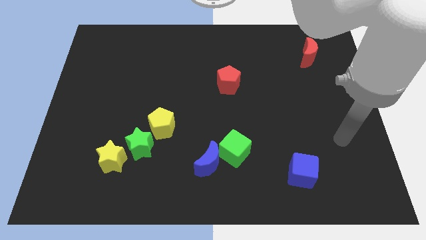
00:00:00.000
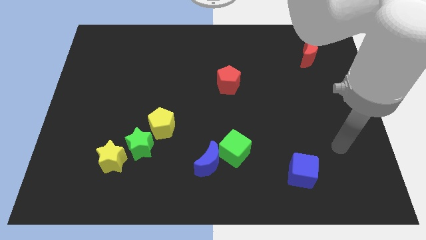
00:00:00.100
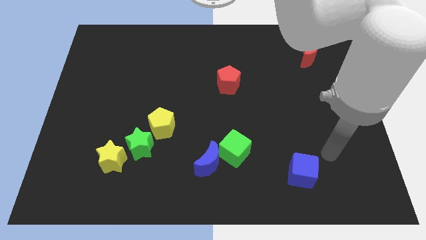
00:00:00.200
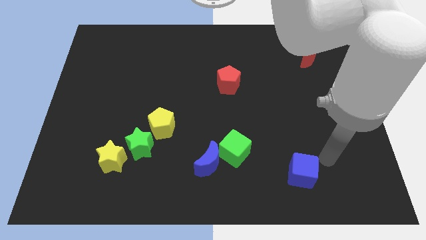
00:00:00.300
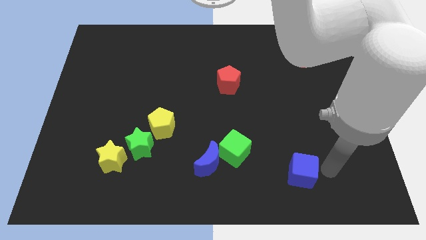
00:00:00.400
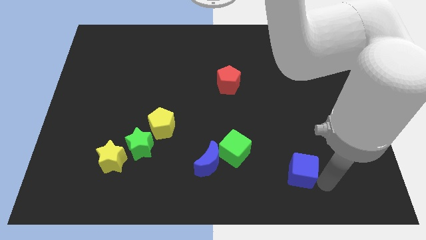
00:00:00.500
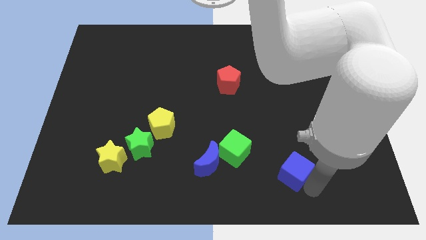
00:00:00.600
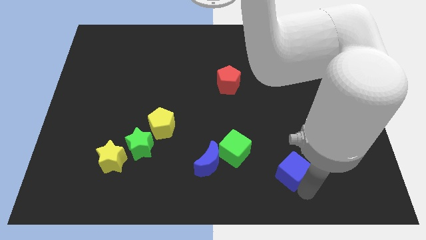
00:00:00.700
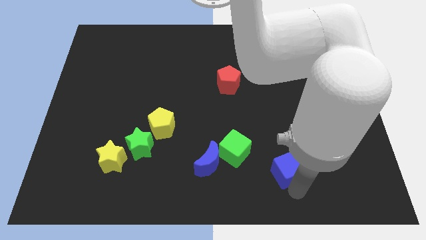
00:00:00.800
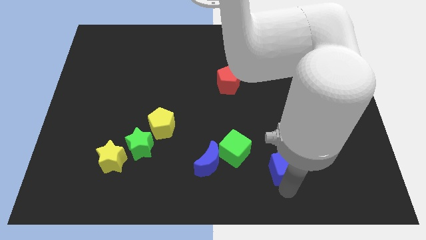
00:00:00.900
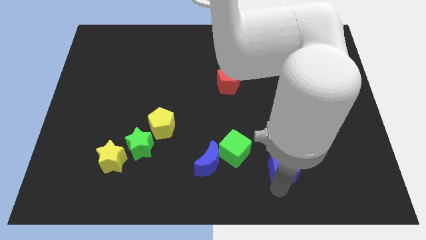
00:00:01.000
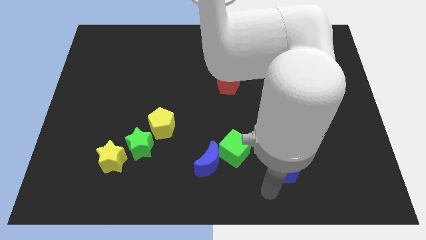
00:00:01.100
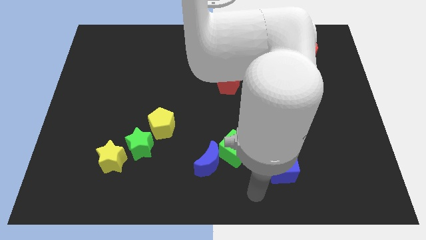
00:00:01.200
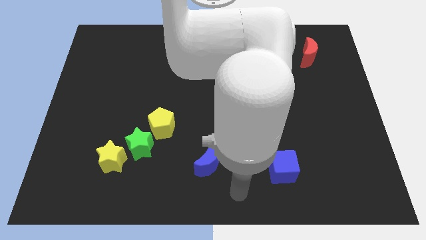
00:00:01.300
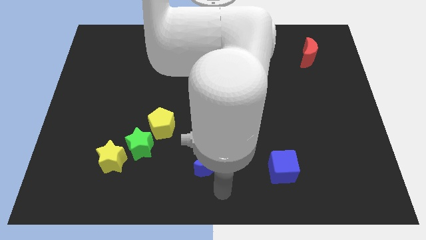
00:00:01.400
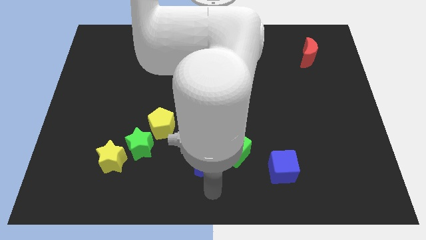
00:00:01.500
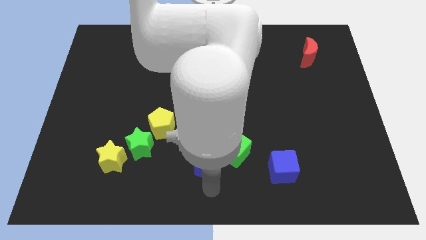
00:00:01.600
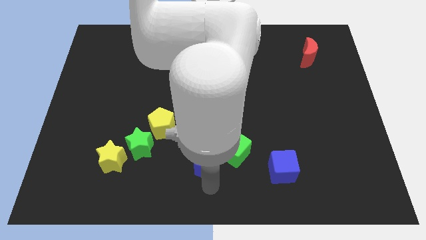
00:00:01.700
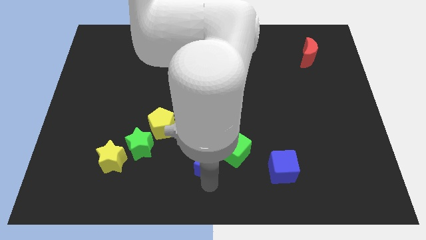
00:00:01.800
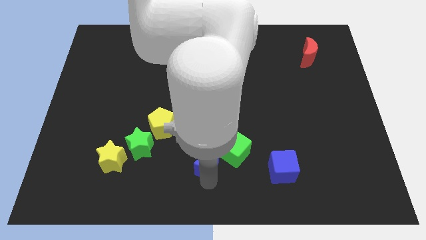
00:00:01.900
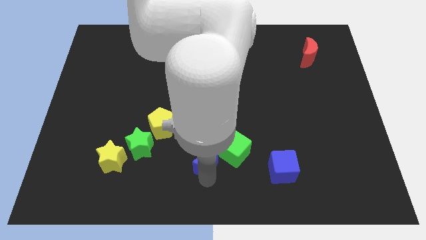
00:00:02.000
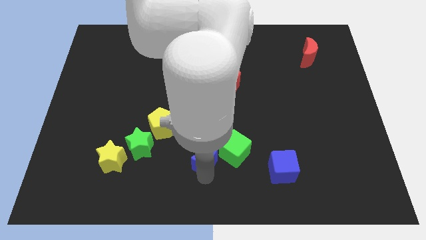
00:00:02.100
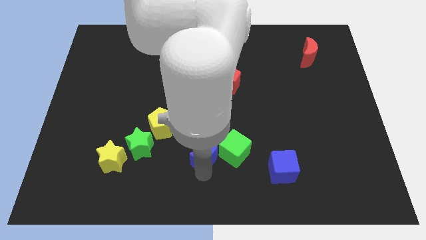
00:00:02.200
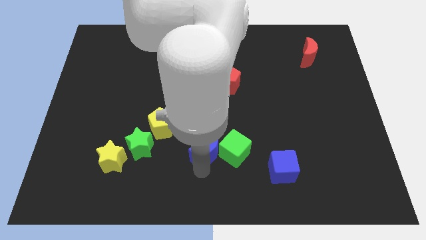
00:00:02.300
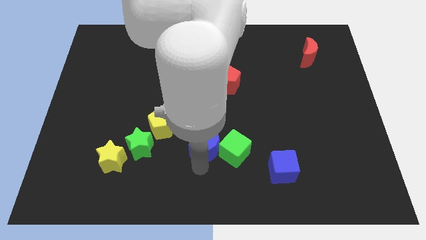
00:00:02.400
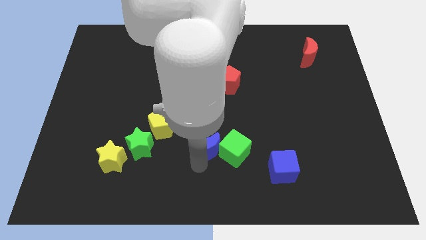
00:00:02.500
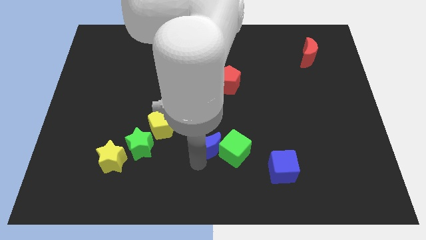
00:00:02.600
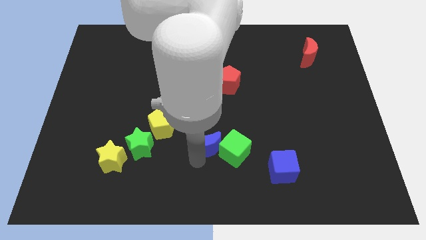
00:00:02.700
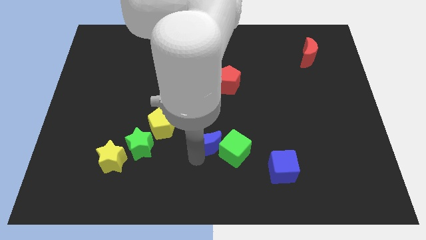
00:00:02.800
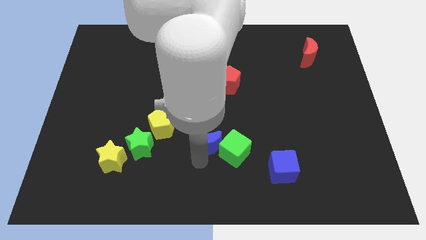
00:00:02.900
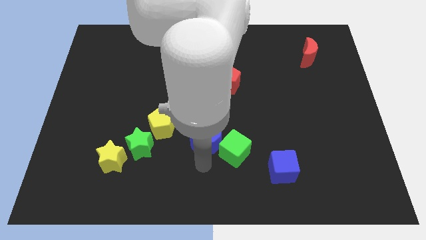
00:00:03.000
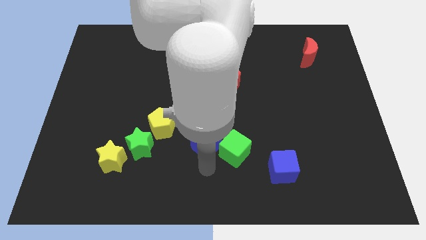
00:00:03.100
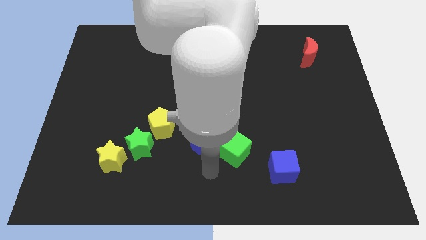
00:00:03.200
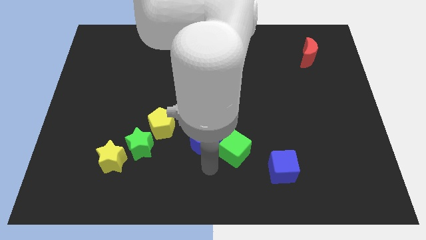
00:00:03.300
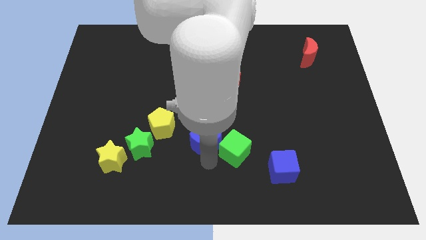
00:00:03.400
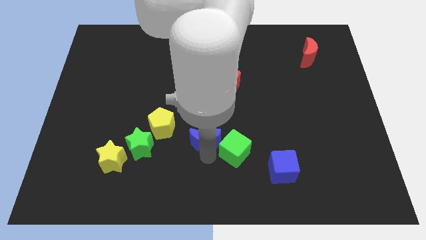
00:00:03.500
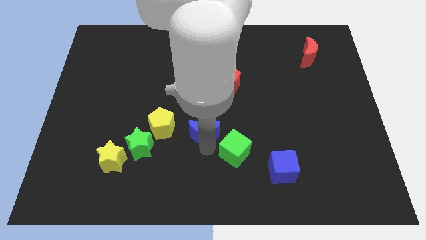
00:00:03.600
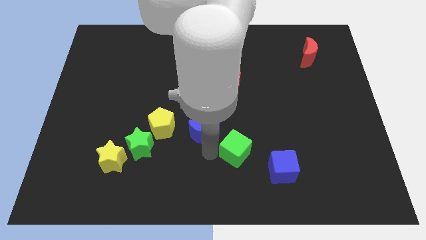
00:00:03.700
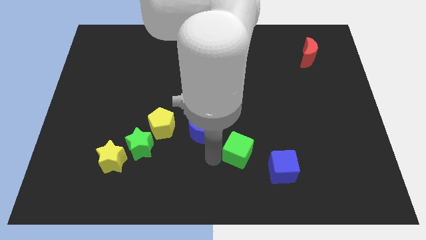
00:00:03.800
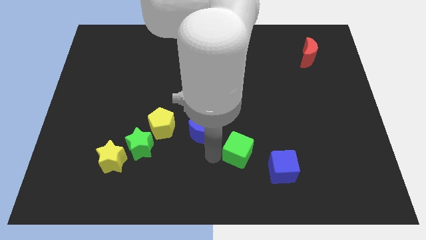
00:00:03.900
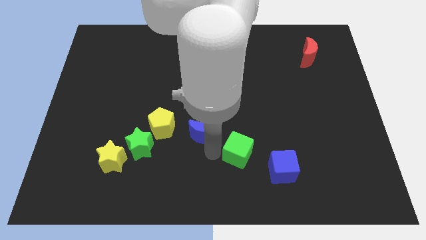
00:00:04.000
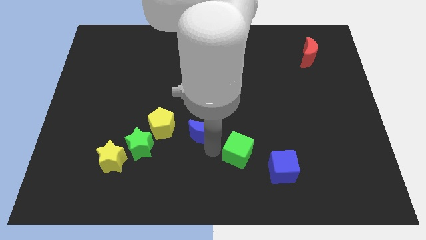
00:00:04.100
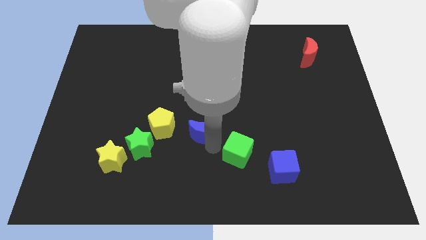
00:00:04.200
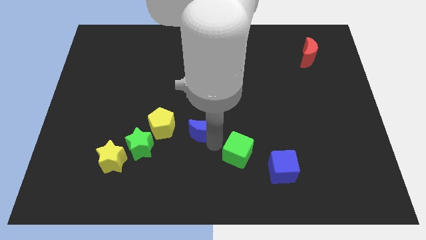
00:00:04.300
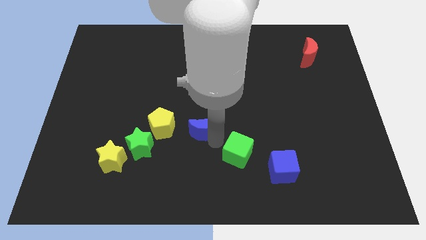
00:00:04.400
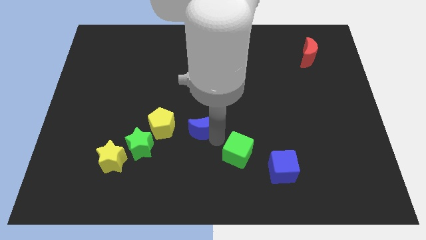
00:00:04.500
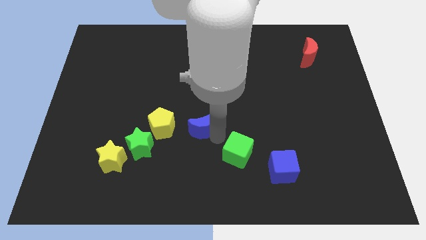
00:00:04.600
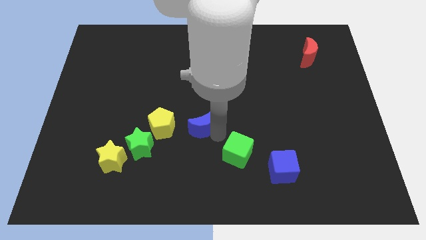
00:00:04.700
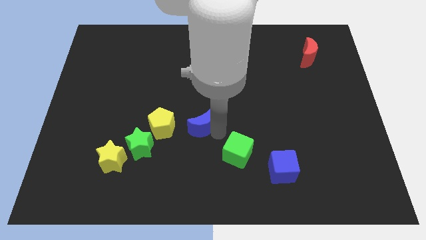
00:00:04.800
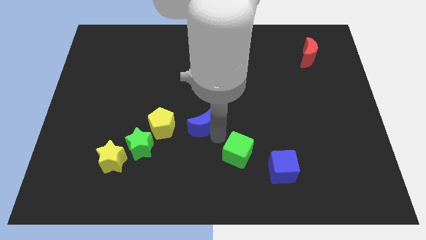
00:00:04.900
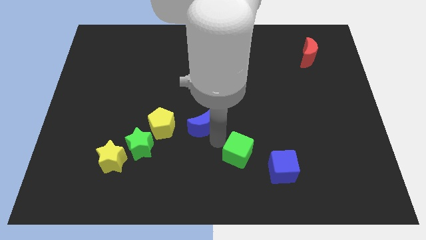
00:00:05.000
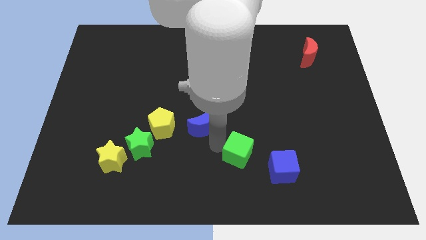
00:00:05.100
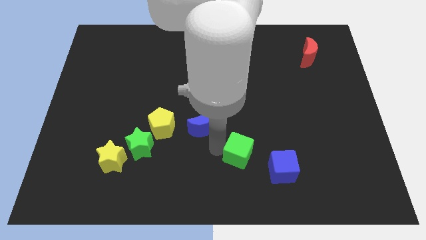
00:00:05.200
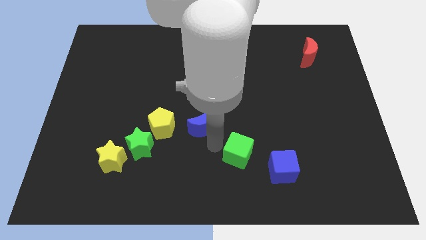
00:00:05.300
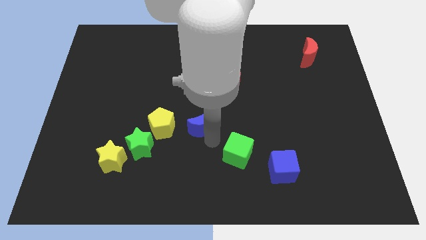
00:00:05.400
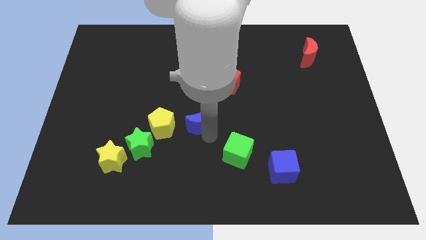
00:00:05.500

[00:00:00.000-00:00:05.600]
slide the blue moon upwards and left diagonally a little bit

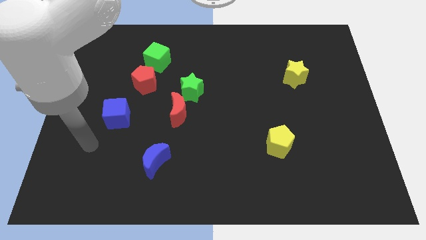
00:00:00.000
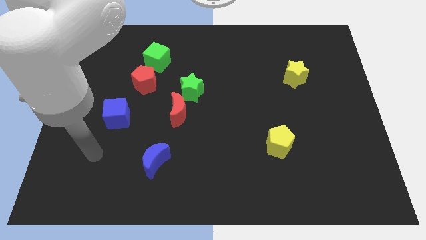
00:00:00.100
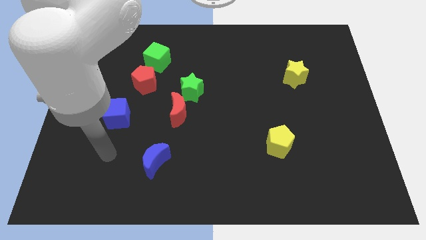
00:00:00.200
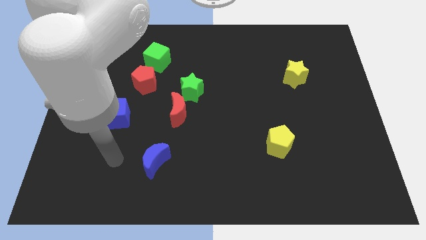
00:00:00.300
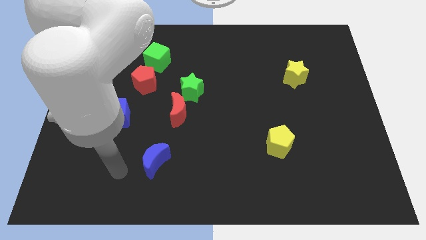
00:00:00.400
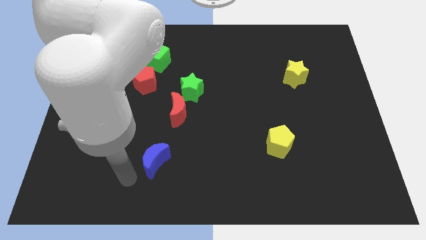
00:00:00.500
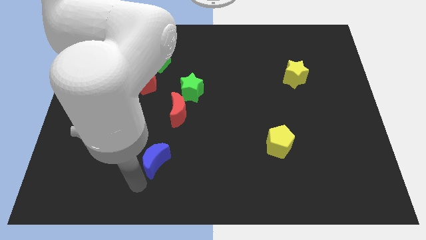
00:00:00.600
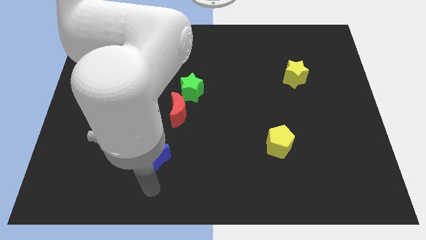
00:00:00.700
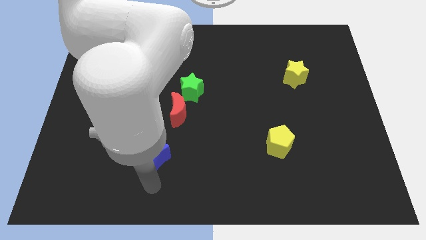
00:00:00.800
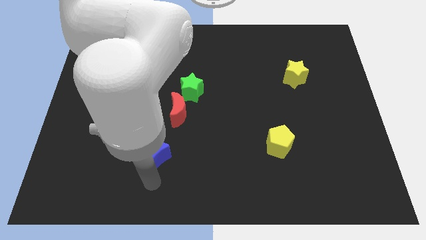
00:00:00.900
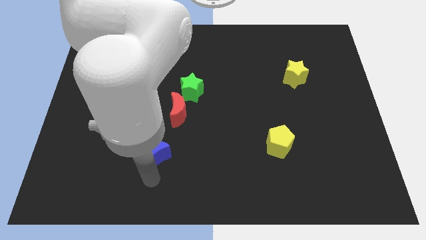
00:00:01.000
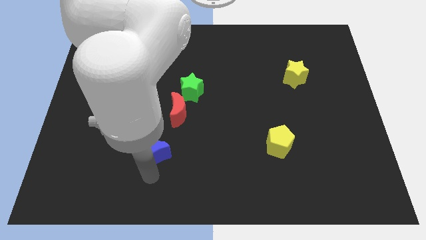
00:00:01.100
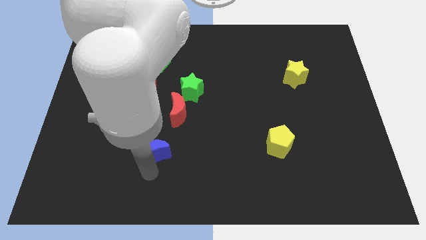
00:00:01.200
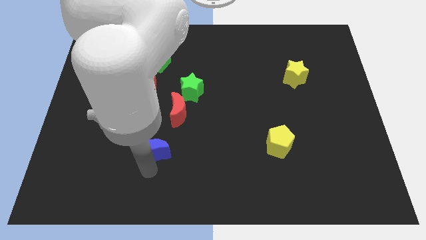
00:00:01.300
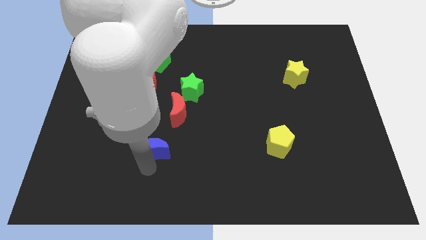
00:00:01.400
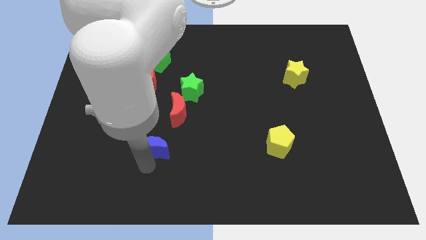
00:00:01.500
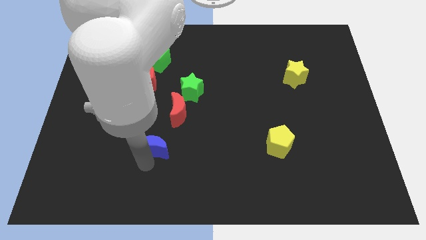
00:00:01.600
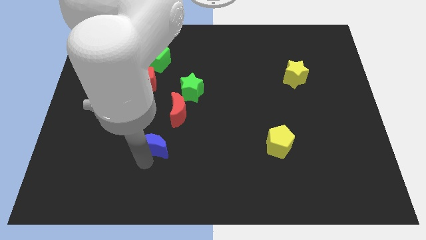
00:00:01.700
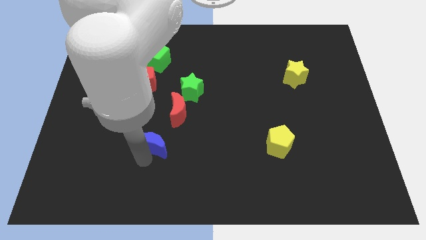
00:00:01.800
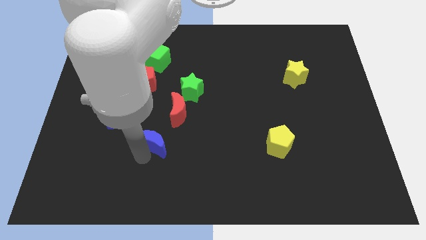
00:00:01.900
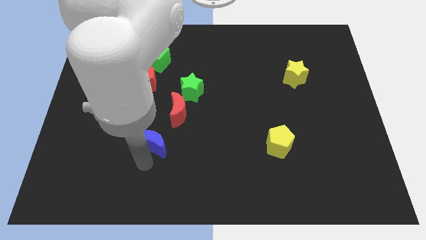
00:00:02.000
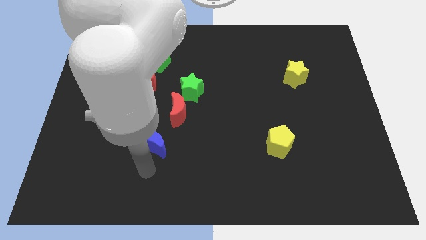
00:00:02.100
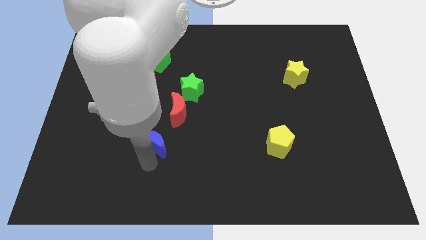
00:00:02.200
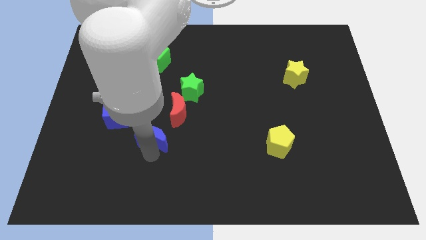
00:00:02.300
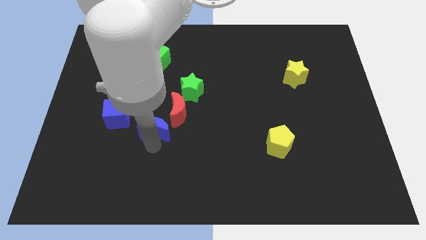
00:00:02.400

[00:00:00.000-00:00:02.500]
move the blue moon slightly up

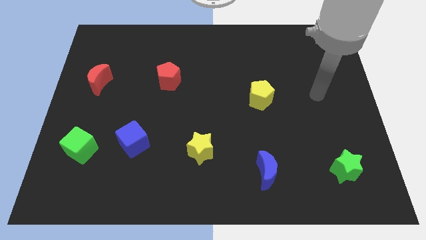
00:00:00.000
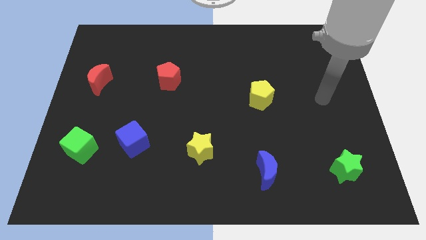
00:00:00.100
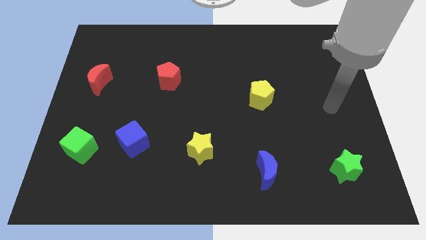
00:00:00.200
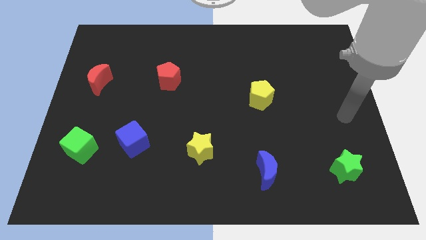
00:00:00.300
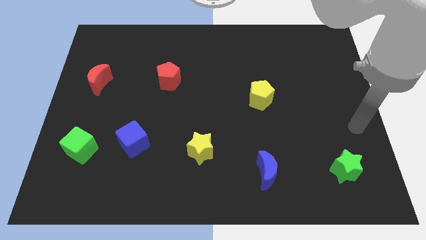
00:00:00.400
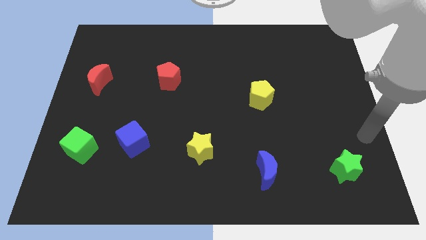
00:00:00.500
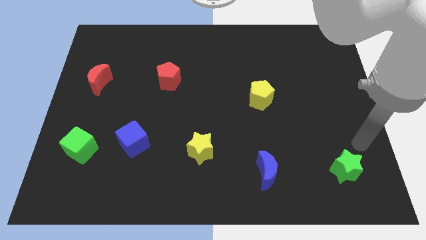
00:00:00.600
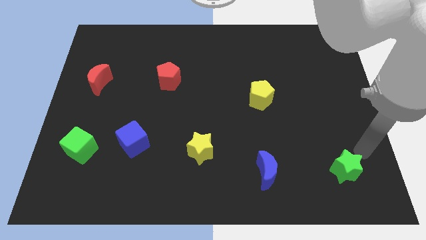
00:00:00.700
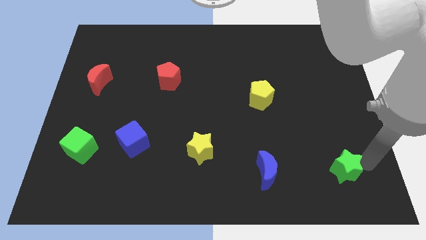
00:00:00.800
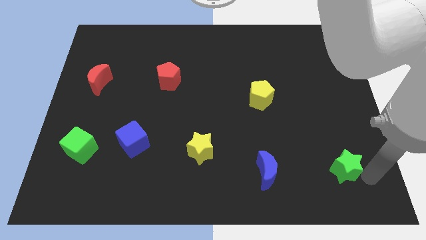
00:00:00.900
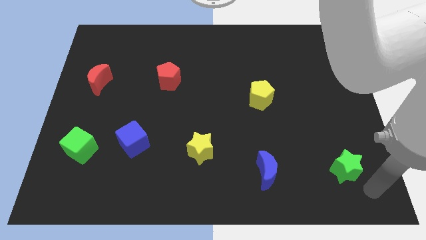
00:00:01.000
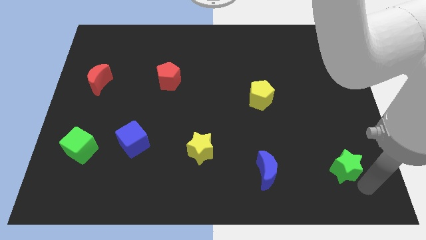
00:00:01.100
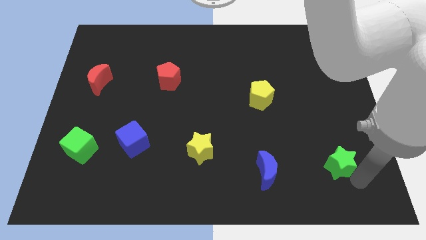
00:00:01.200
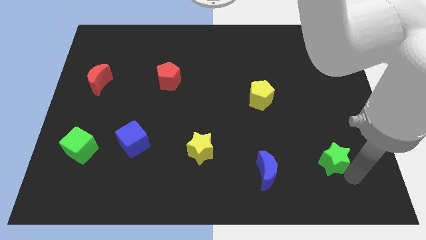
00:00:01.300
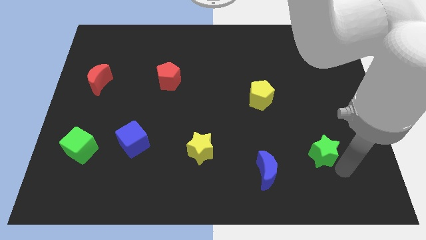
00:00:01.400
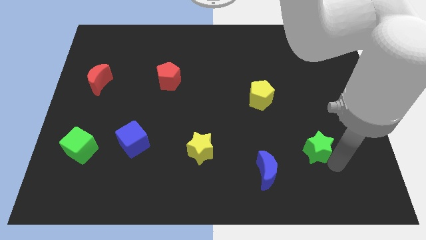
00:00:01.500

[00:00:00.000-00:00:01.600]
slightly slide the green star diagonally up and to the left
